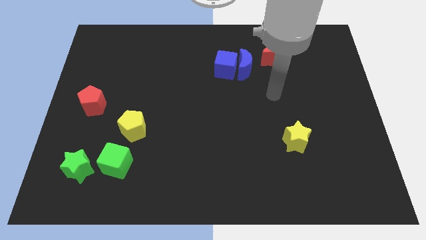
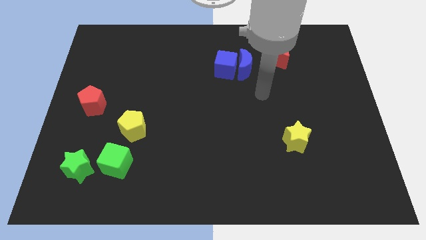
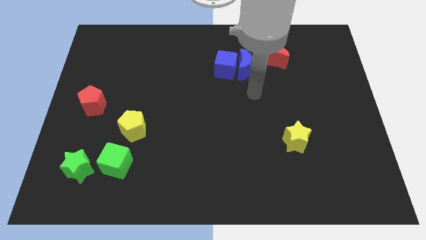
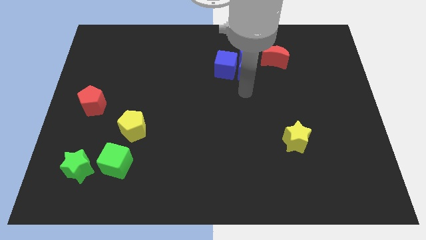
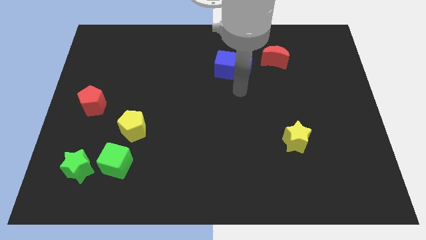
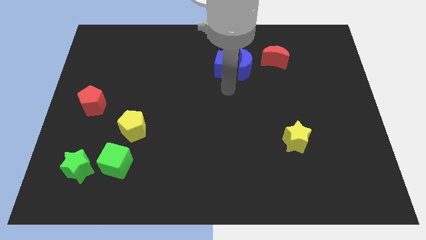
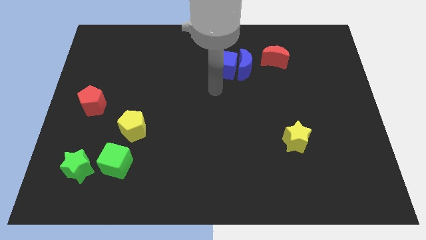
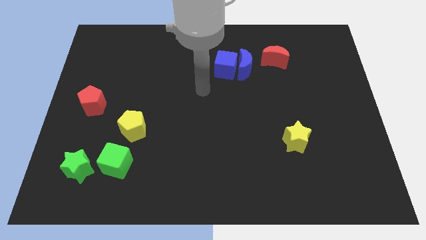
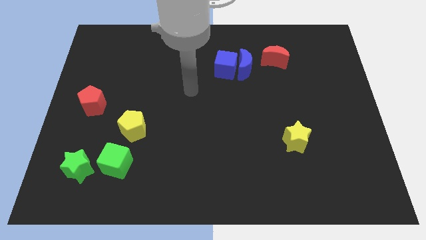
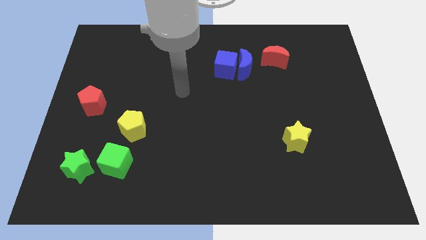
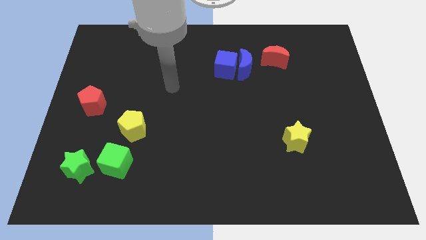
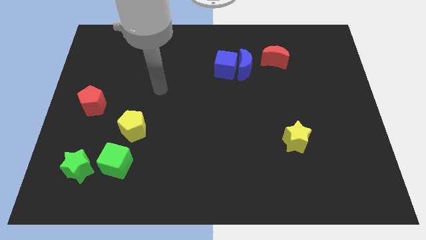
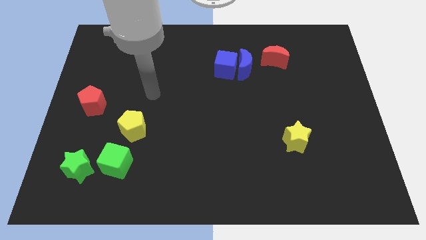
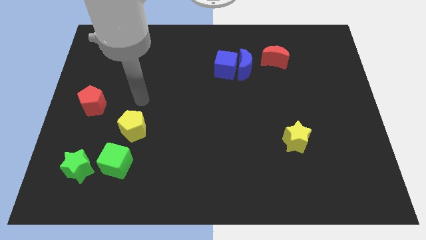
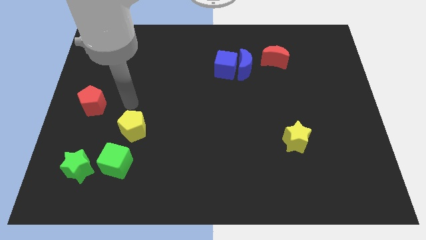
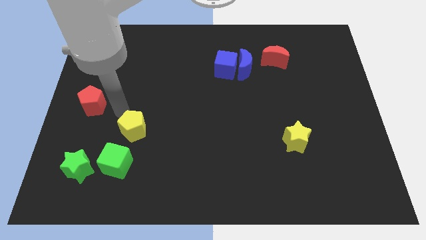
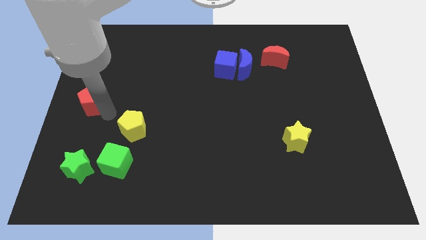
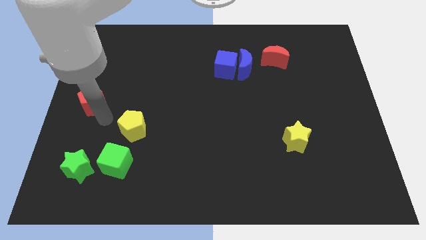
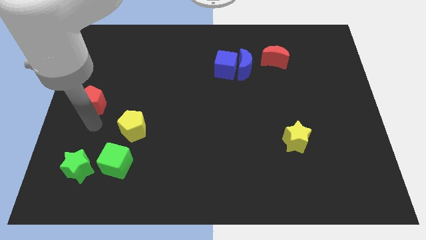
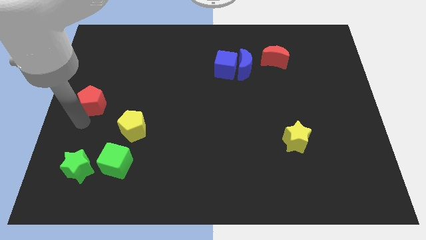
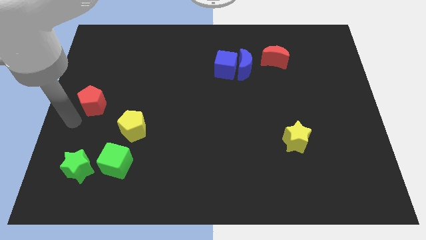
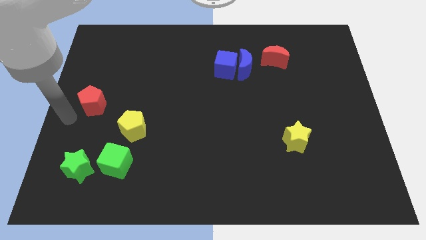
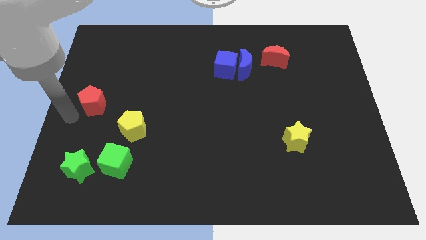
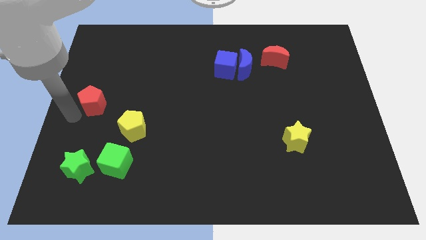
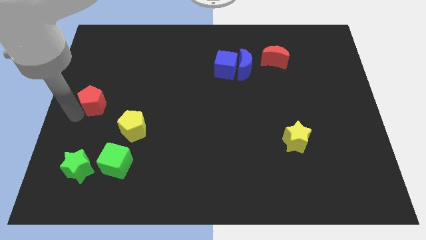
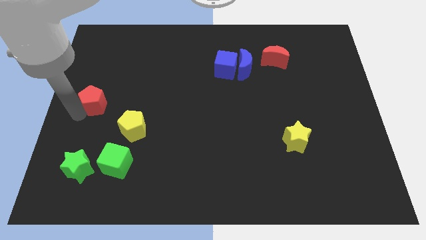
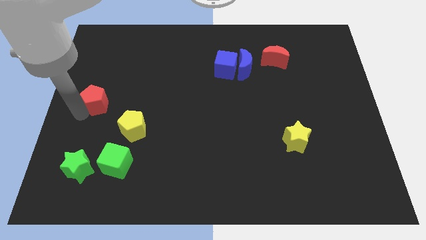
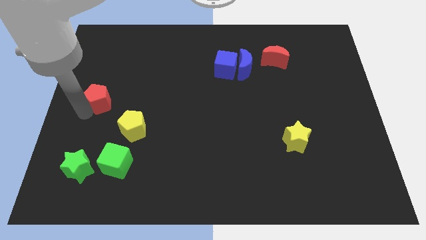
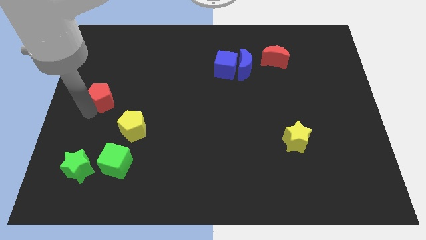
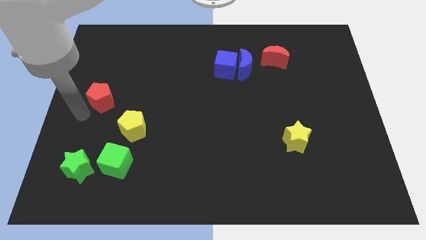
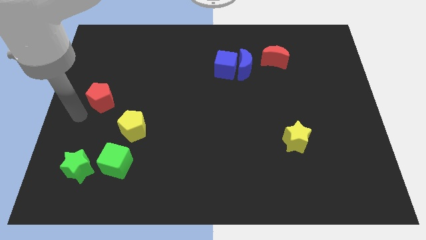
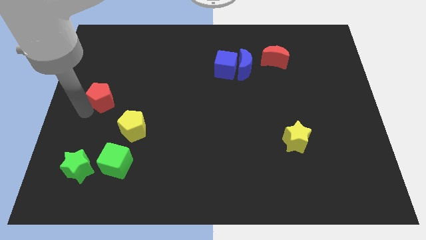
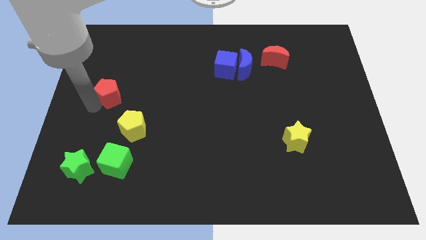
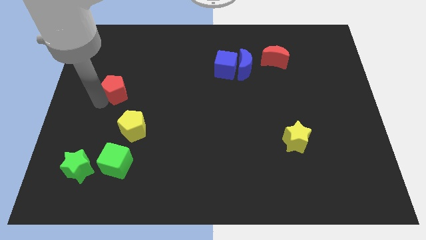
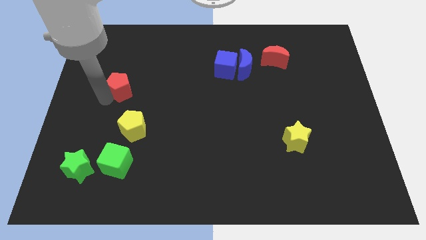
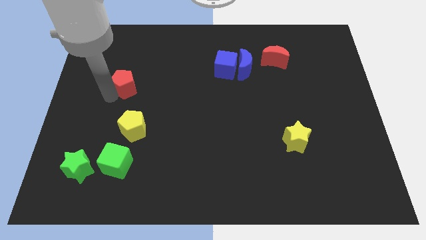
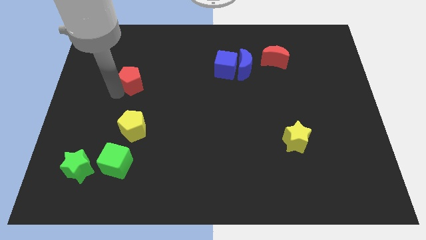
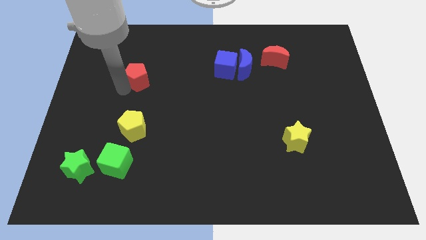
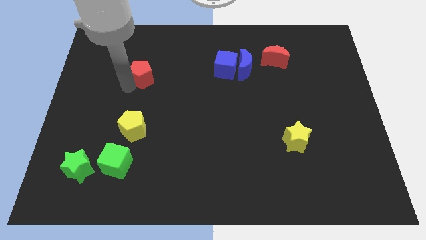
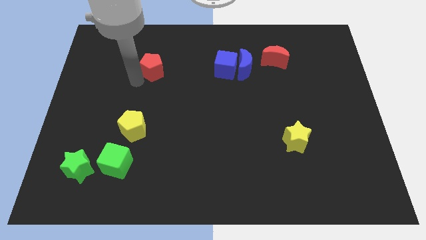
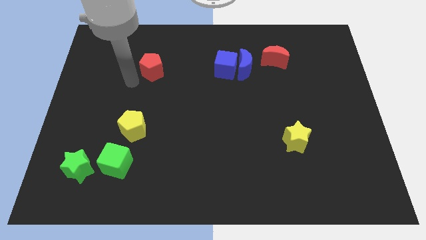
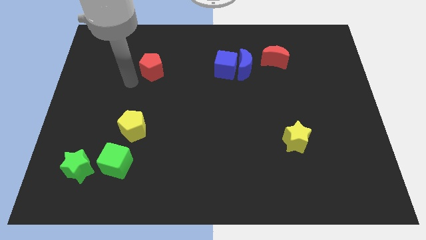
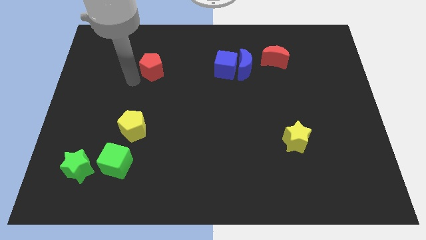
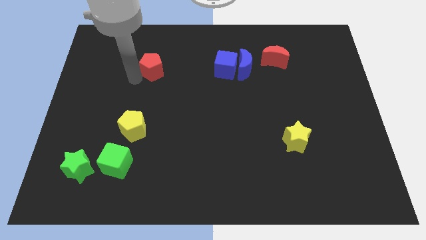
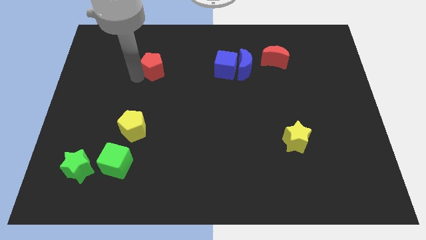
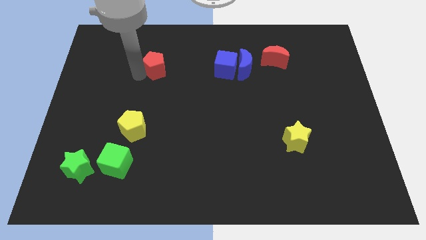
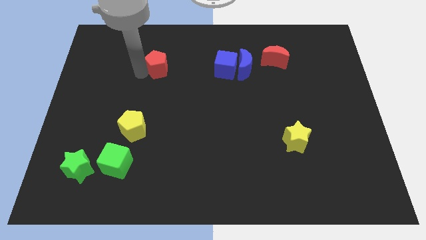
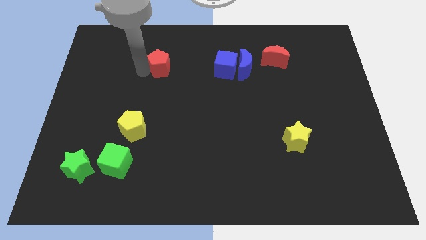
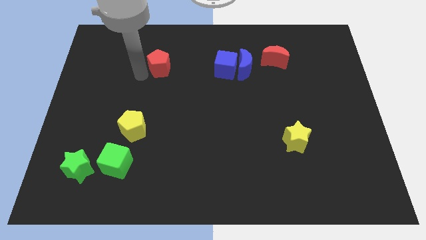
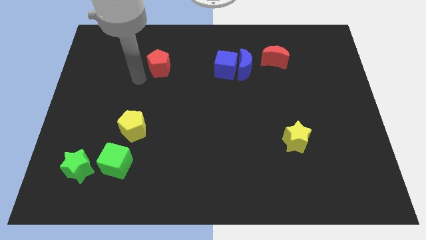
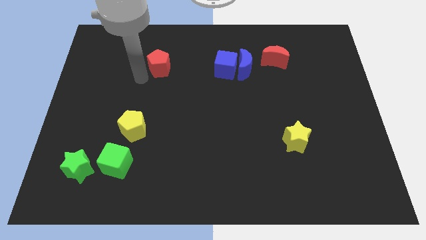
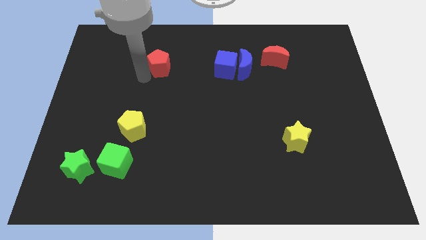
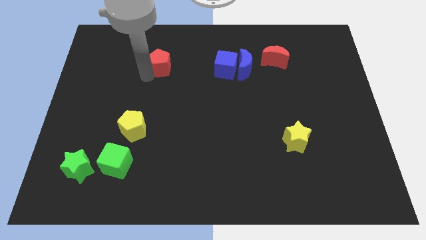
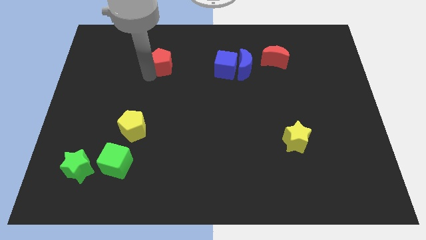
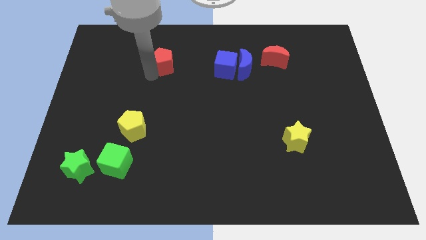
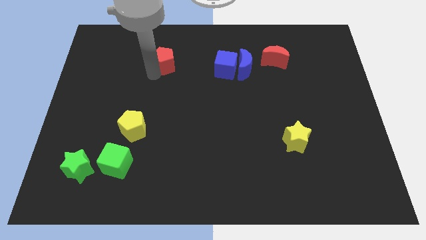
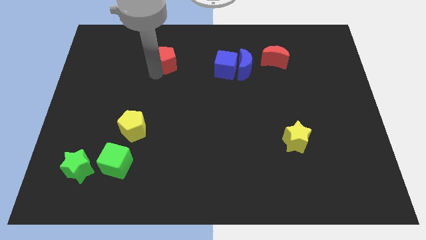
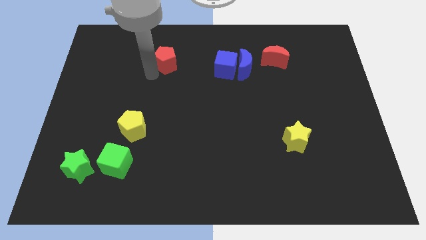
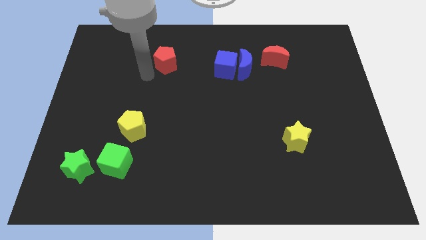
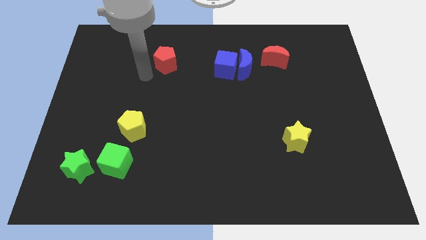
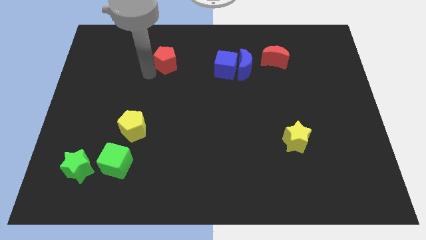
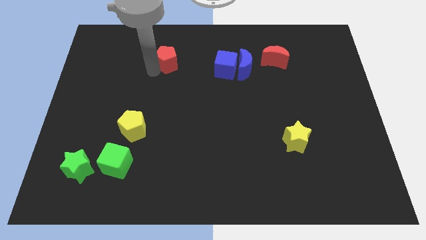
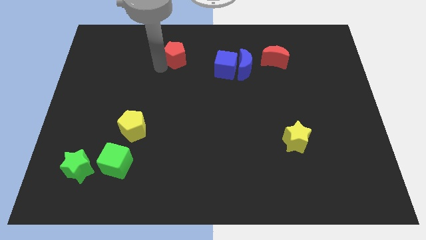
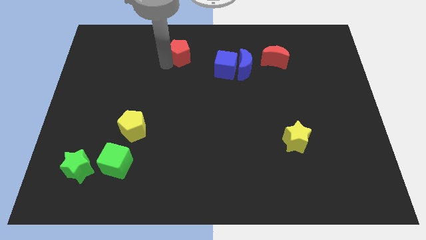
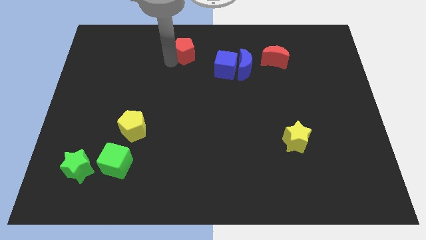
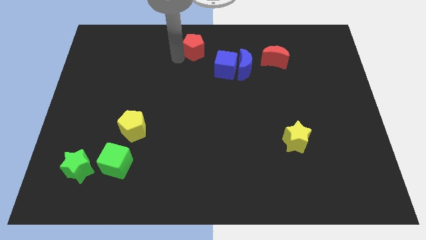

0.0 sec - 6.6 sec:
move the red pentagon to the towards your base

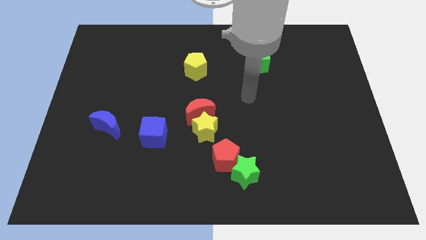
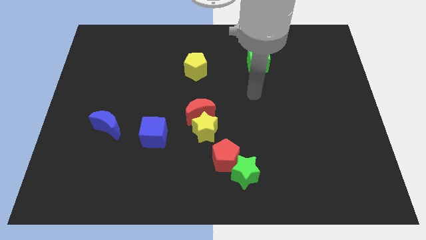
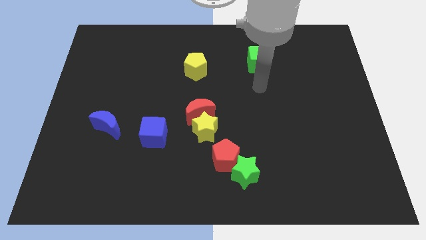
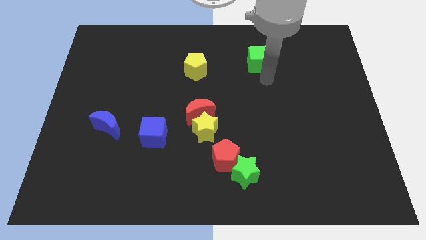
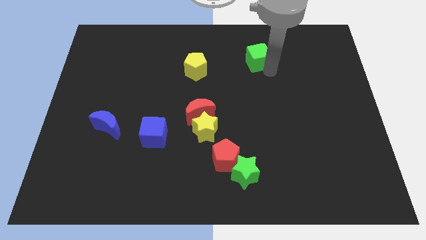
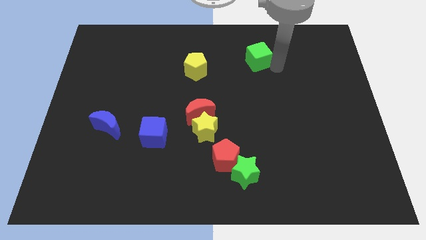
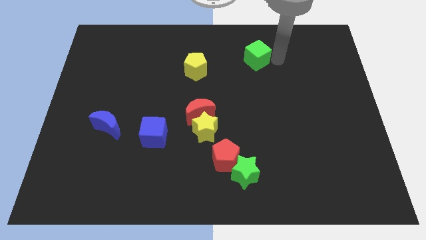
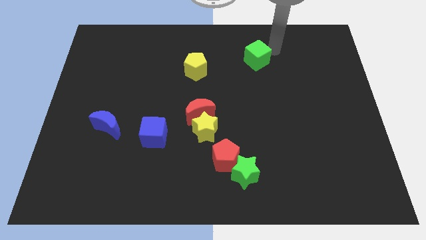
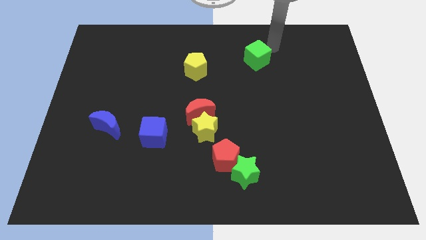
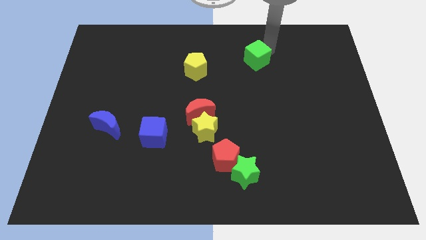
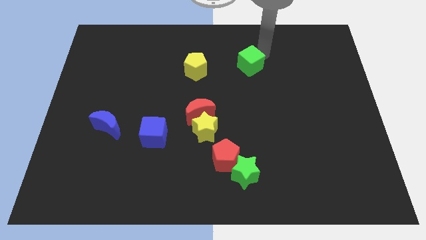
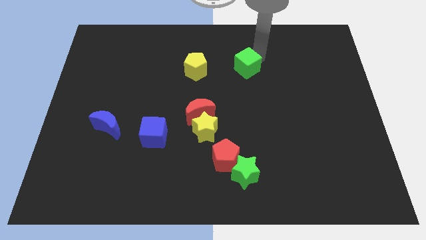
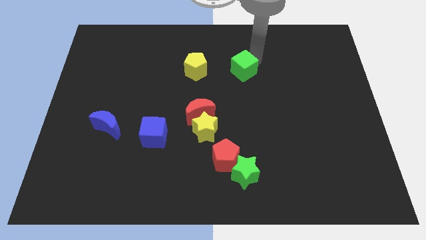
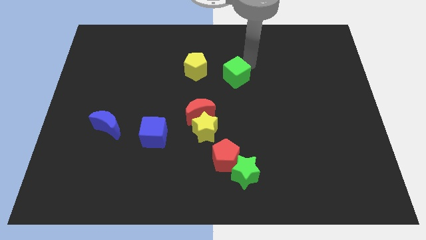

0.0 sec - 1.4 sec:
slide the green cube to the center of the board
